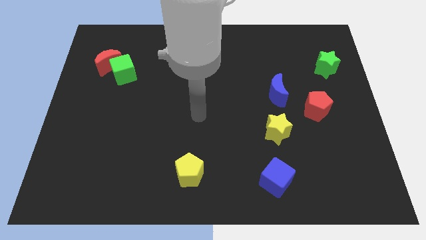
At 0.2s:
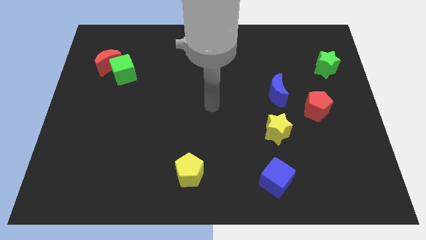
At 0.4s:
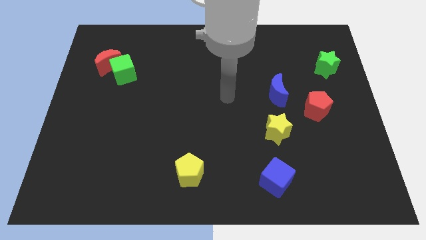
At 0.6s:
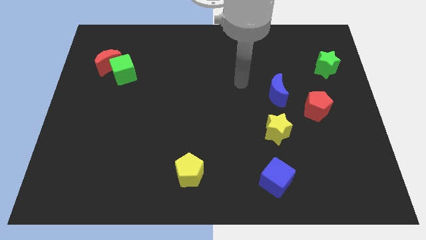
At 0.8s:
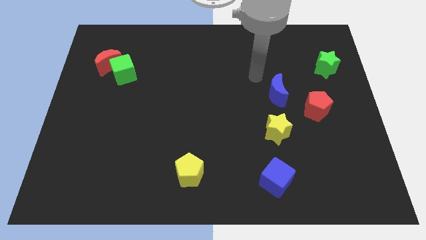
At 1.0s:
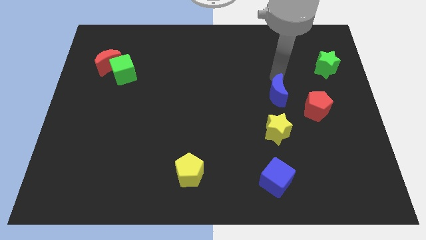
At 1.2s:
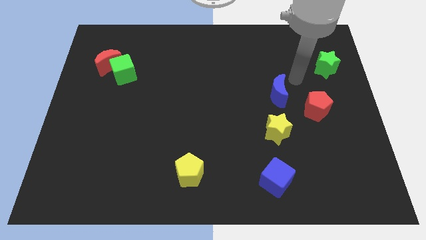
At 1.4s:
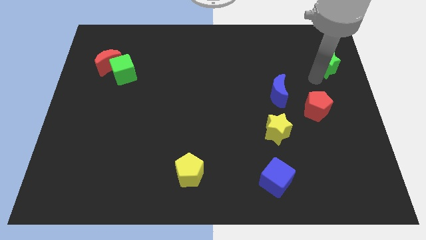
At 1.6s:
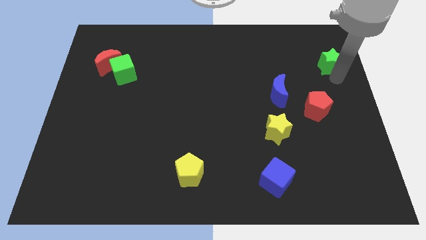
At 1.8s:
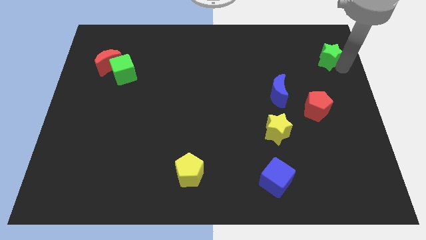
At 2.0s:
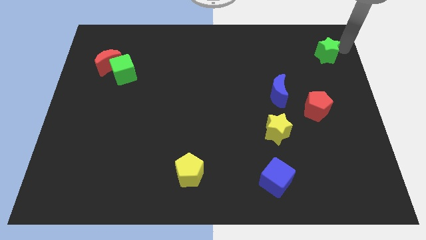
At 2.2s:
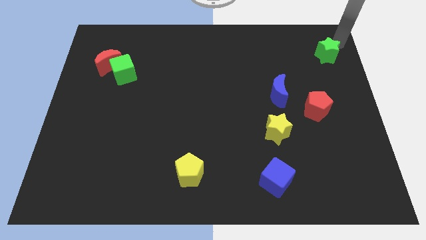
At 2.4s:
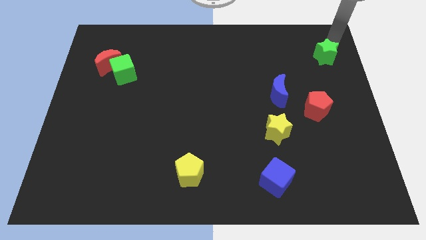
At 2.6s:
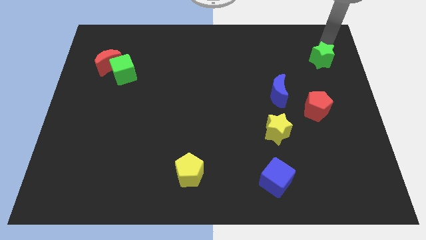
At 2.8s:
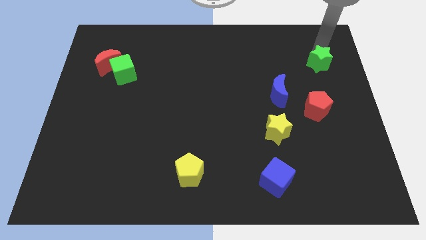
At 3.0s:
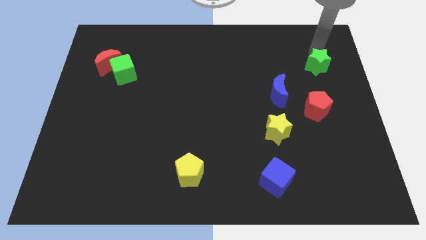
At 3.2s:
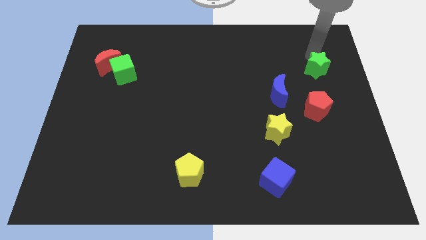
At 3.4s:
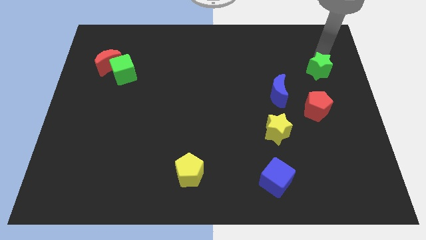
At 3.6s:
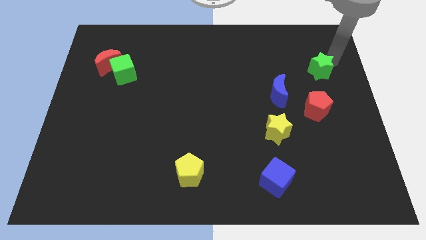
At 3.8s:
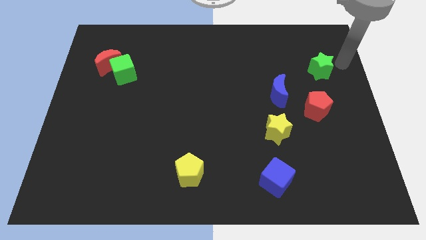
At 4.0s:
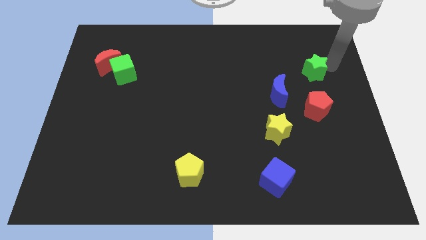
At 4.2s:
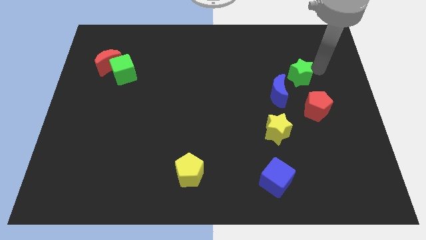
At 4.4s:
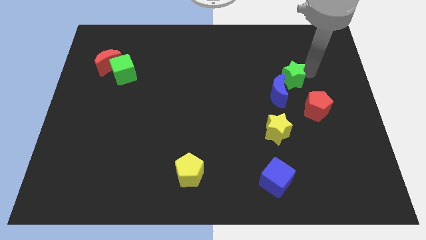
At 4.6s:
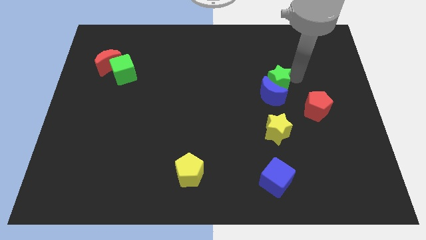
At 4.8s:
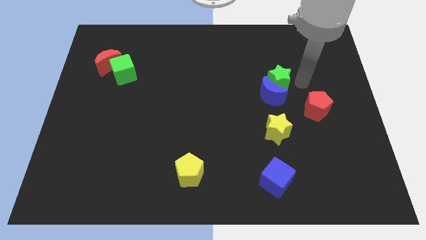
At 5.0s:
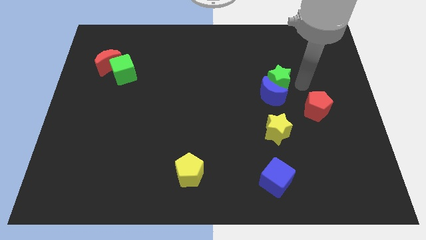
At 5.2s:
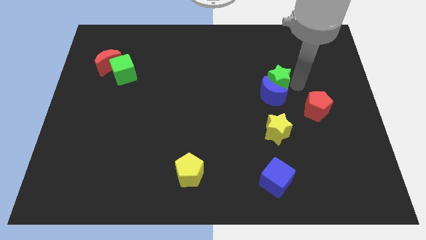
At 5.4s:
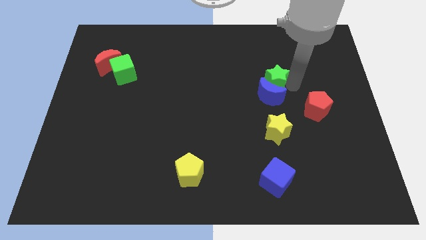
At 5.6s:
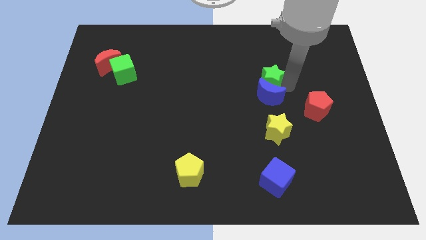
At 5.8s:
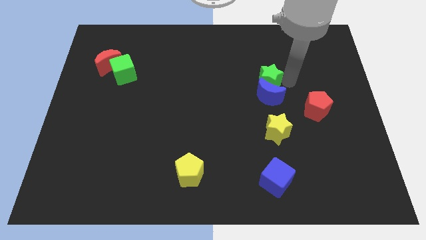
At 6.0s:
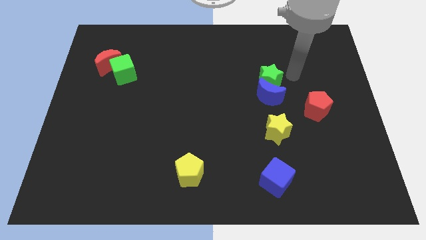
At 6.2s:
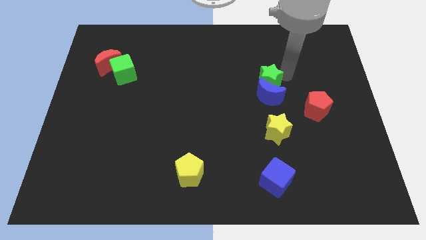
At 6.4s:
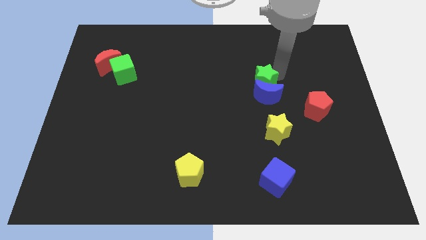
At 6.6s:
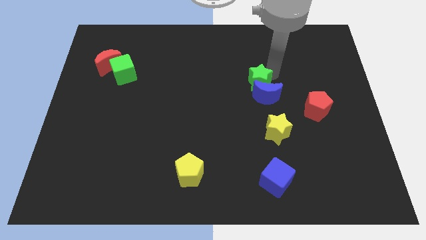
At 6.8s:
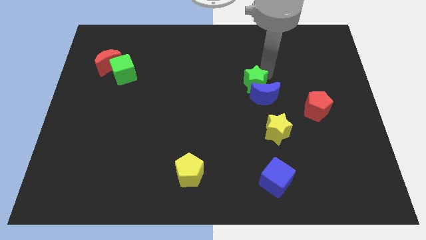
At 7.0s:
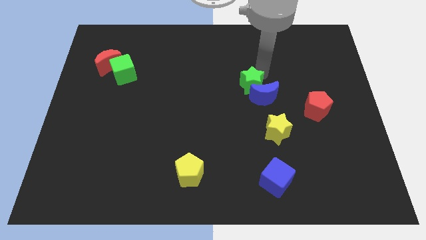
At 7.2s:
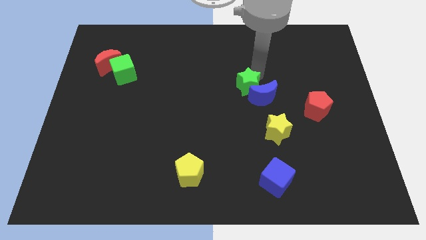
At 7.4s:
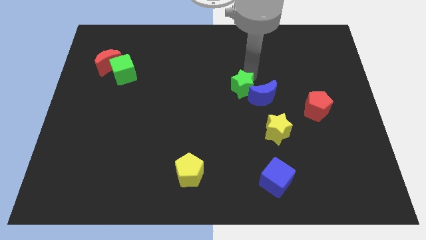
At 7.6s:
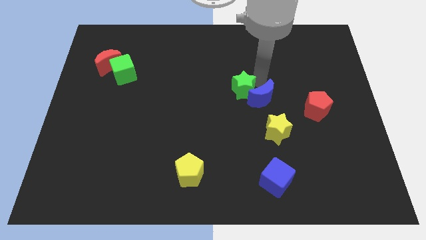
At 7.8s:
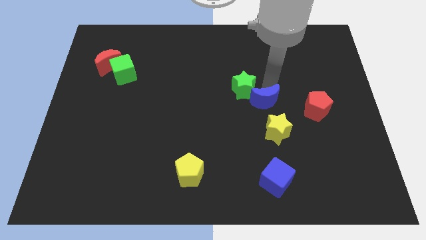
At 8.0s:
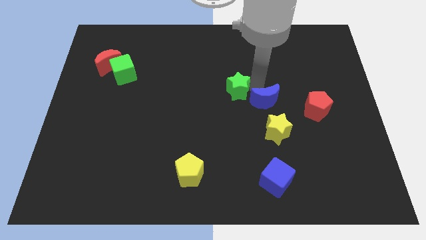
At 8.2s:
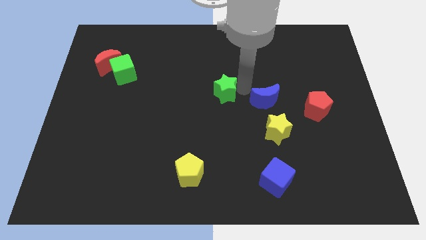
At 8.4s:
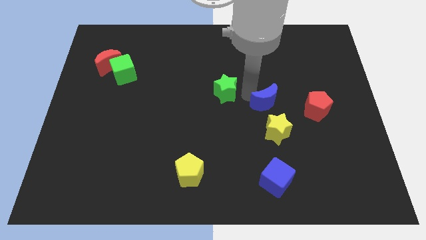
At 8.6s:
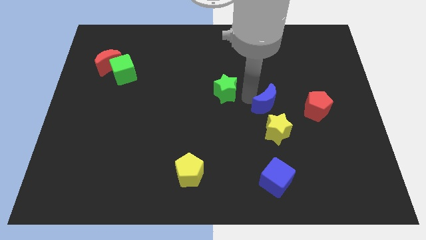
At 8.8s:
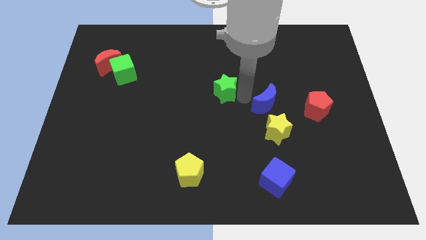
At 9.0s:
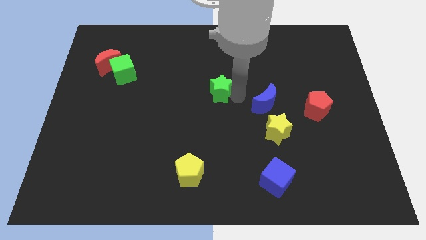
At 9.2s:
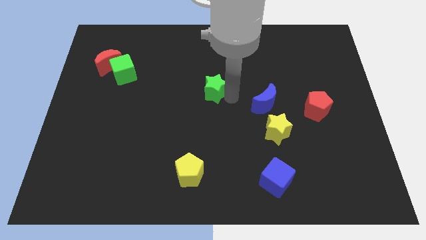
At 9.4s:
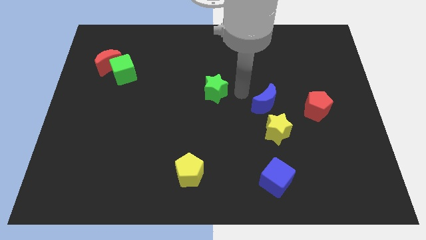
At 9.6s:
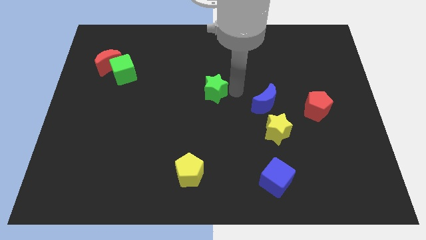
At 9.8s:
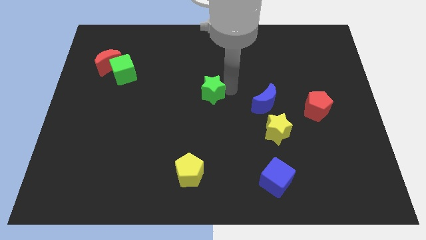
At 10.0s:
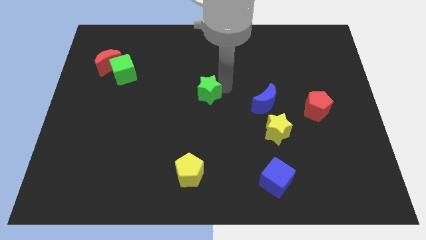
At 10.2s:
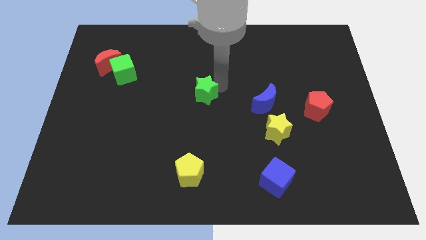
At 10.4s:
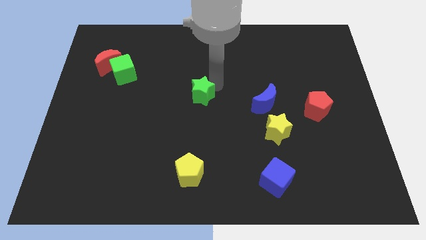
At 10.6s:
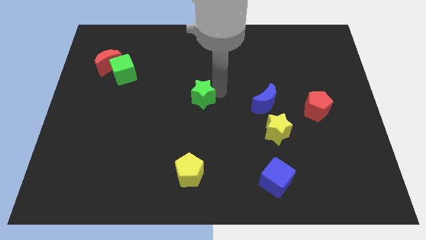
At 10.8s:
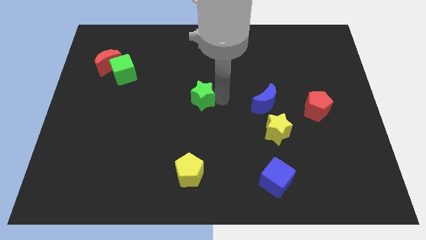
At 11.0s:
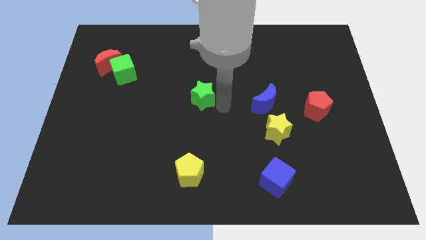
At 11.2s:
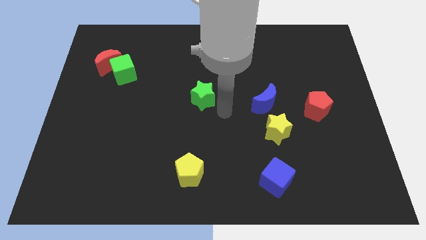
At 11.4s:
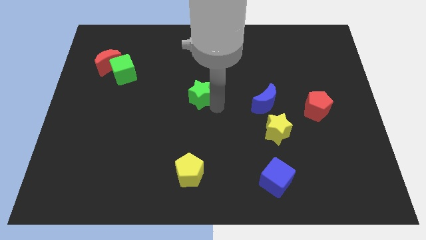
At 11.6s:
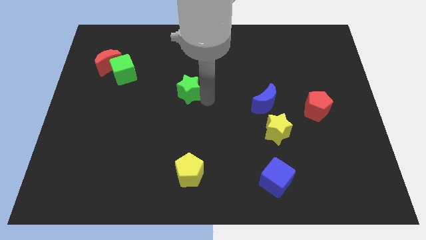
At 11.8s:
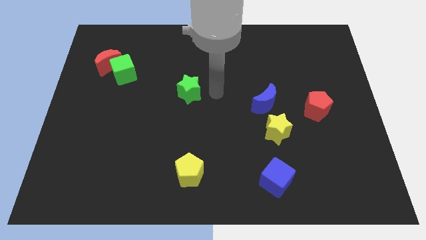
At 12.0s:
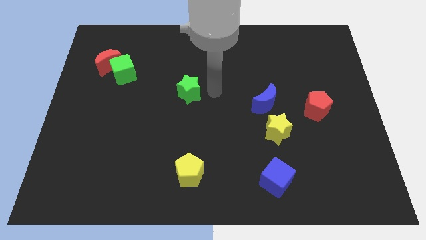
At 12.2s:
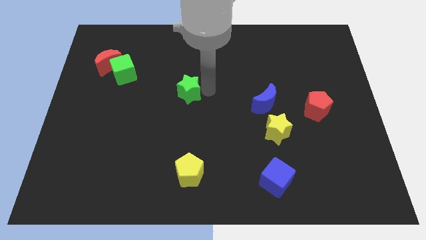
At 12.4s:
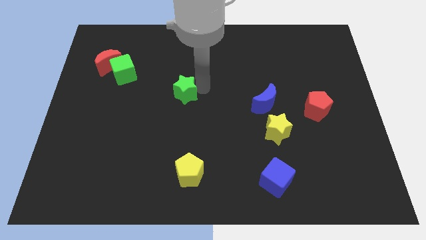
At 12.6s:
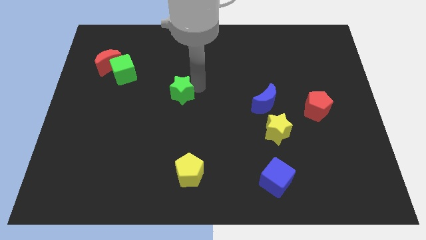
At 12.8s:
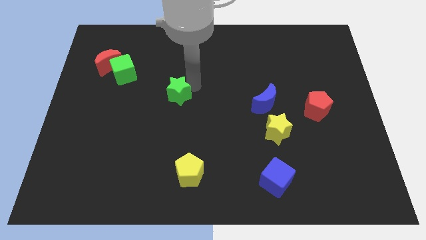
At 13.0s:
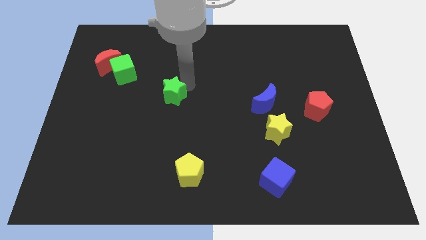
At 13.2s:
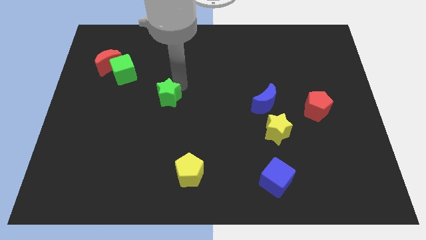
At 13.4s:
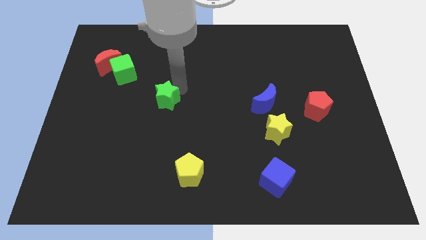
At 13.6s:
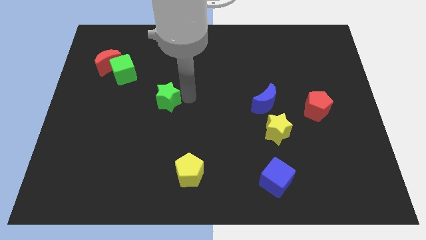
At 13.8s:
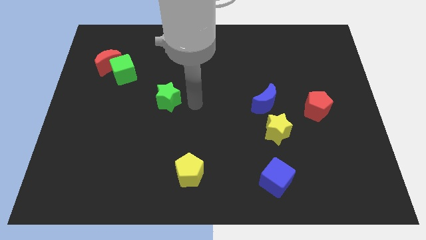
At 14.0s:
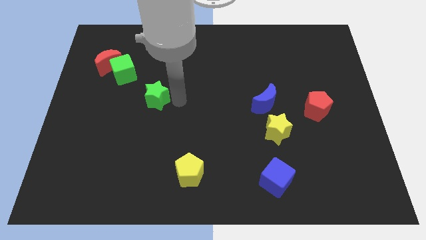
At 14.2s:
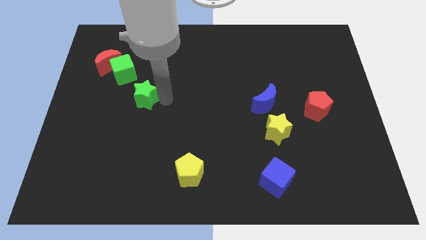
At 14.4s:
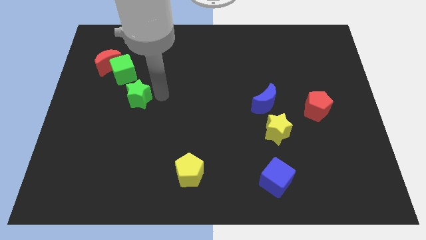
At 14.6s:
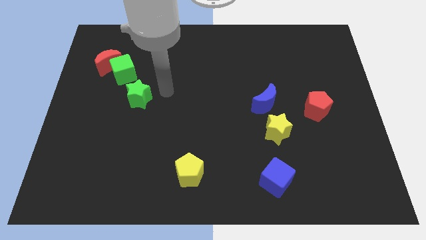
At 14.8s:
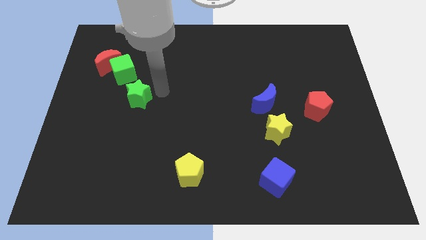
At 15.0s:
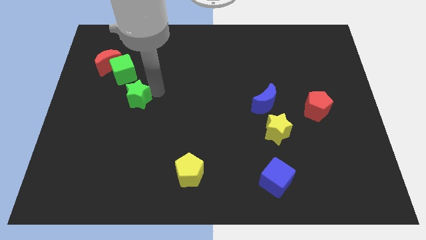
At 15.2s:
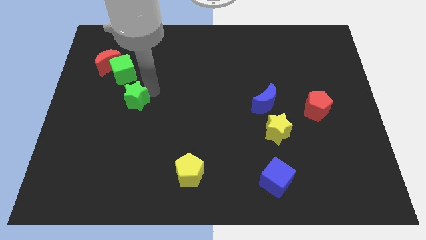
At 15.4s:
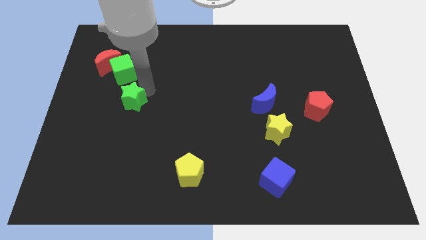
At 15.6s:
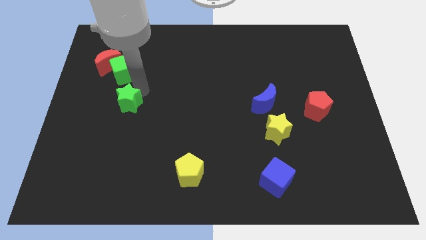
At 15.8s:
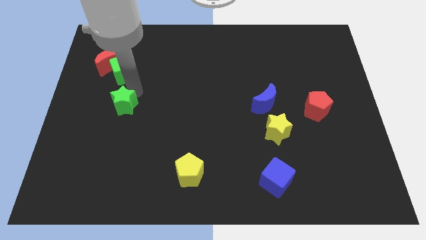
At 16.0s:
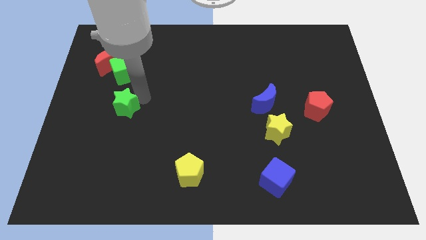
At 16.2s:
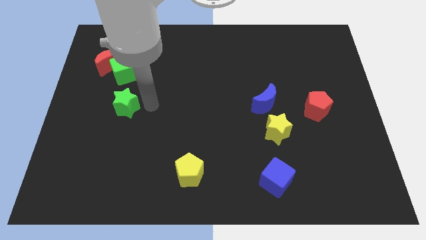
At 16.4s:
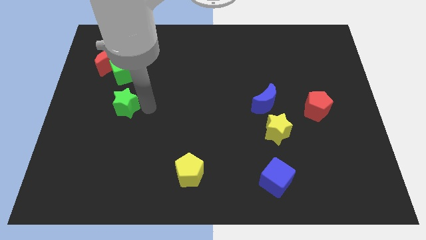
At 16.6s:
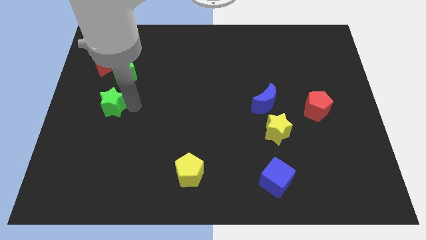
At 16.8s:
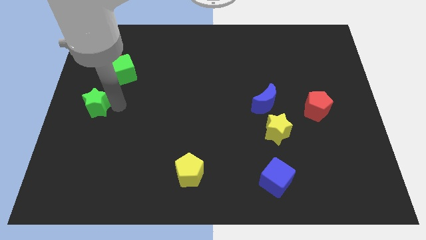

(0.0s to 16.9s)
slide the green star to the left side
